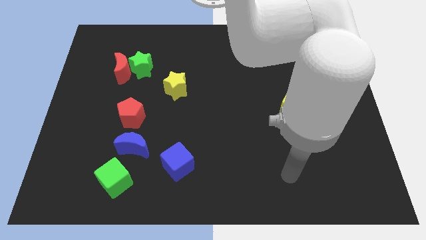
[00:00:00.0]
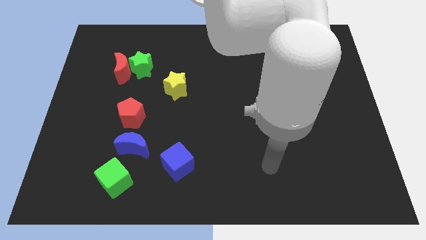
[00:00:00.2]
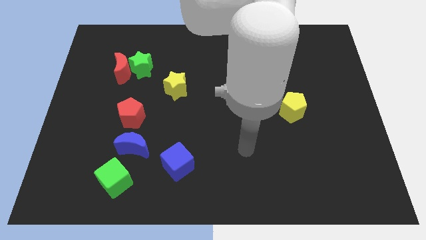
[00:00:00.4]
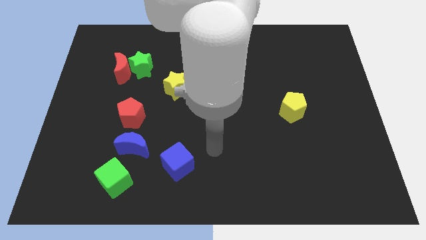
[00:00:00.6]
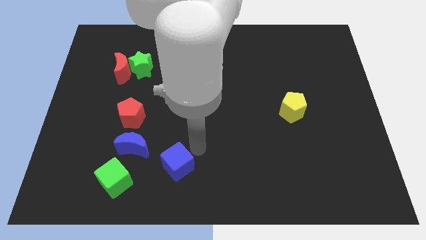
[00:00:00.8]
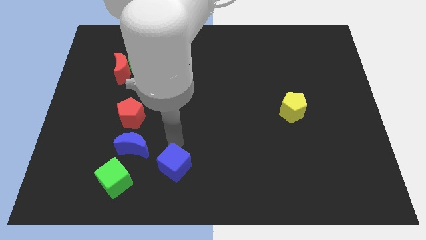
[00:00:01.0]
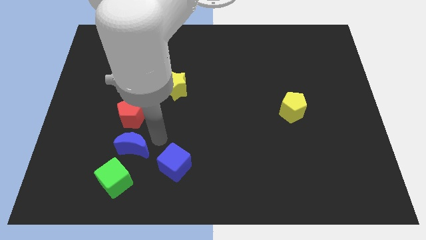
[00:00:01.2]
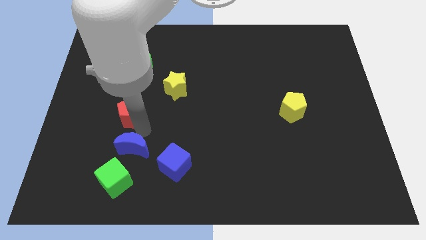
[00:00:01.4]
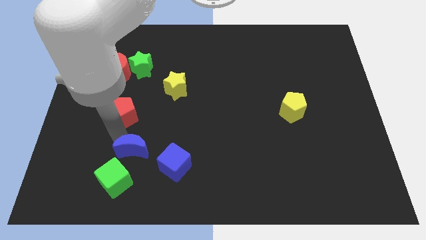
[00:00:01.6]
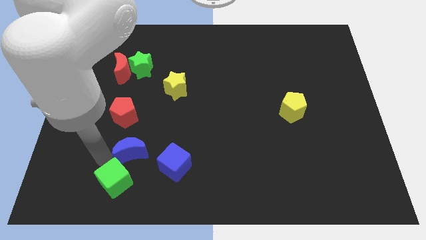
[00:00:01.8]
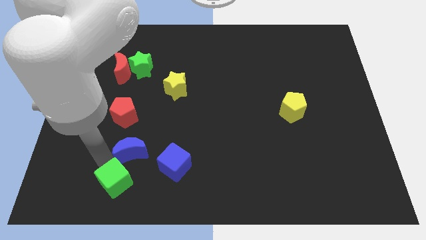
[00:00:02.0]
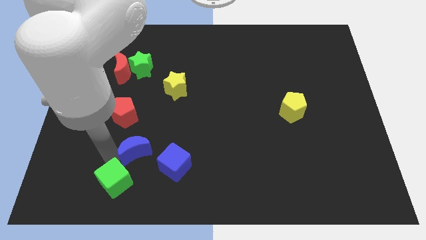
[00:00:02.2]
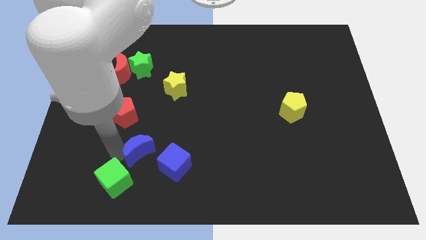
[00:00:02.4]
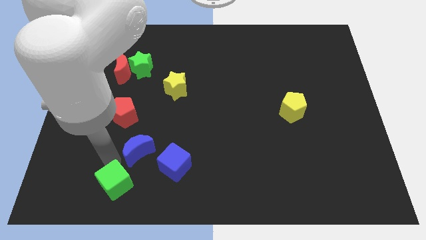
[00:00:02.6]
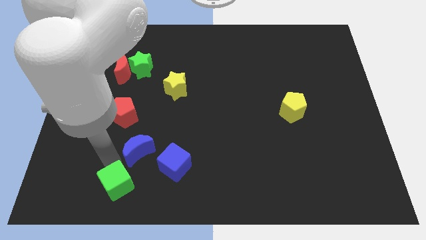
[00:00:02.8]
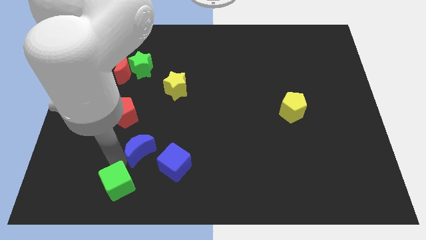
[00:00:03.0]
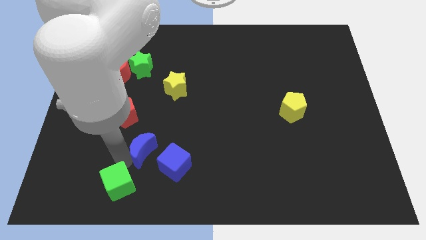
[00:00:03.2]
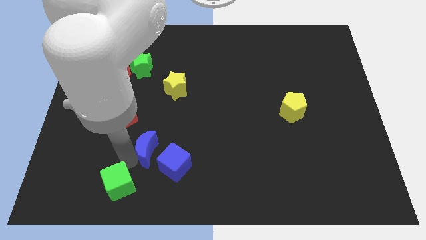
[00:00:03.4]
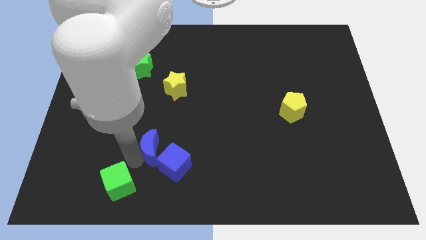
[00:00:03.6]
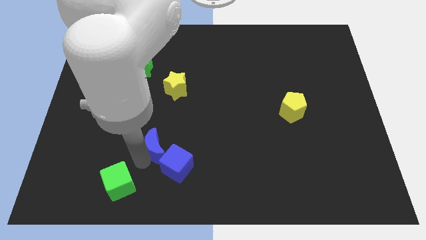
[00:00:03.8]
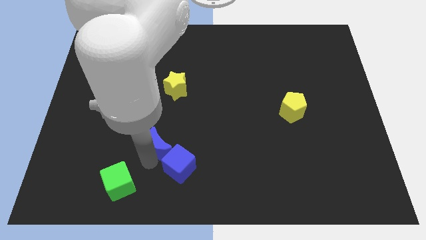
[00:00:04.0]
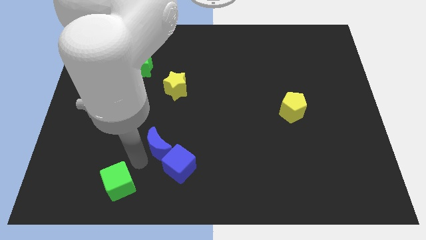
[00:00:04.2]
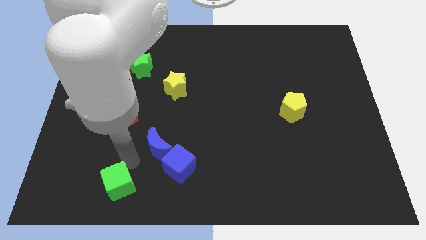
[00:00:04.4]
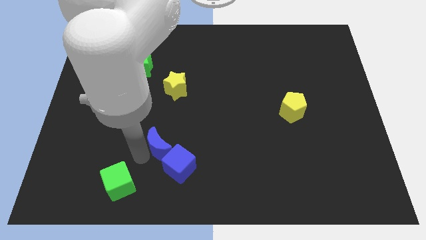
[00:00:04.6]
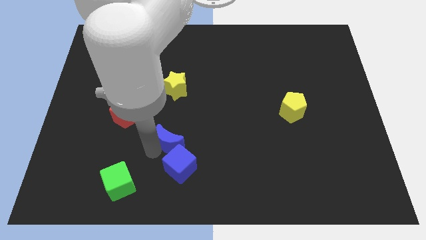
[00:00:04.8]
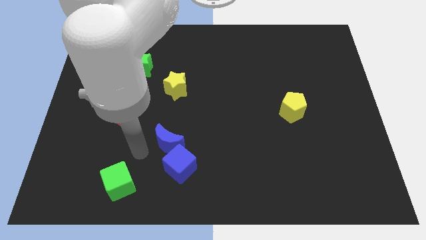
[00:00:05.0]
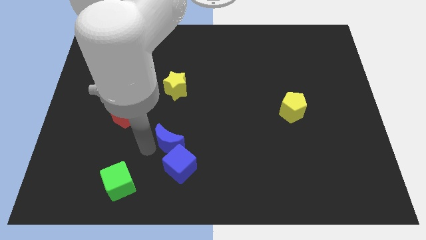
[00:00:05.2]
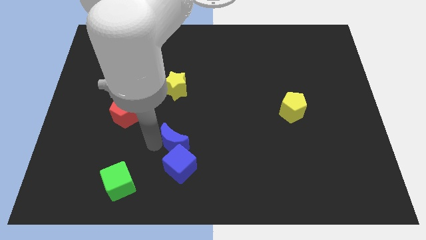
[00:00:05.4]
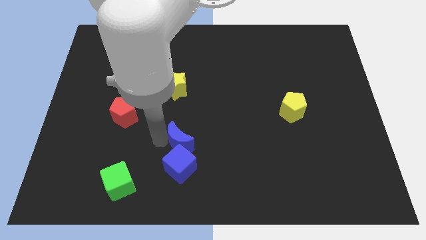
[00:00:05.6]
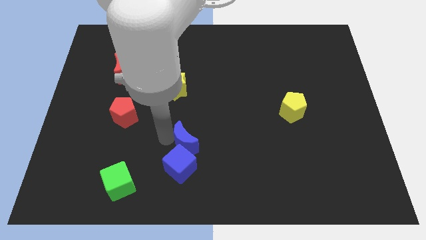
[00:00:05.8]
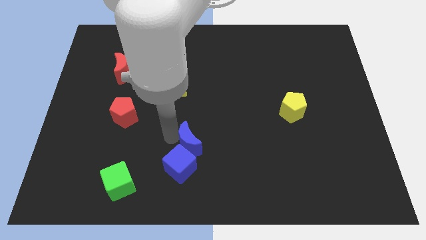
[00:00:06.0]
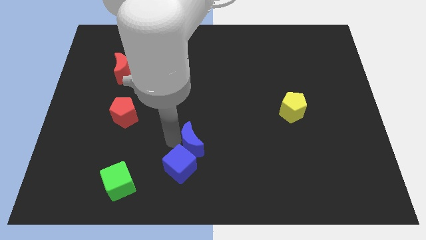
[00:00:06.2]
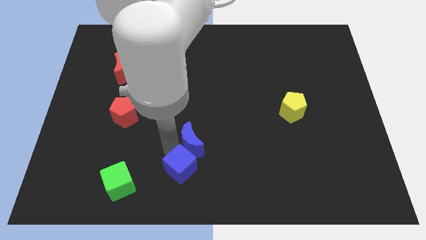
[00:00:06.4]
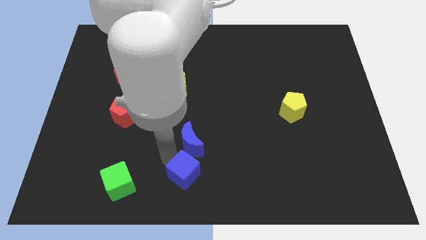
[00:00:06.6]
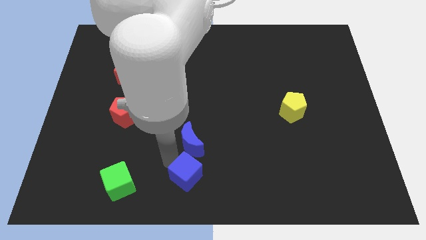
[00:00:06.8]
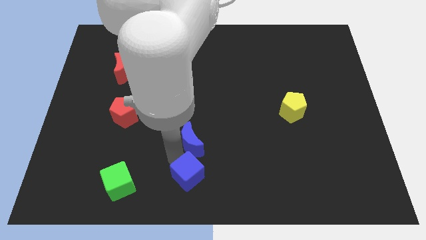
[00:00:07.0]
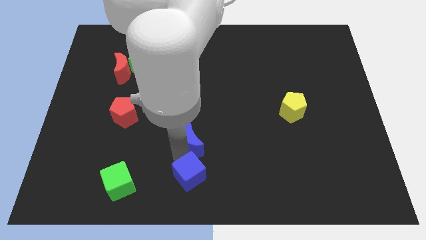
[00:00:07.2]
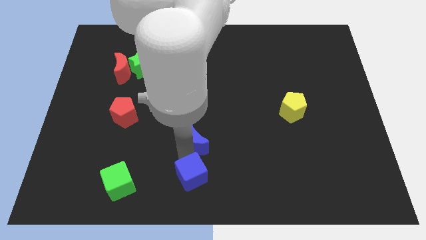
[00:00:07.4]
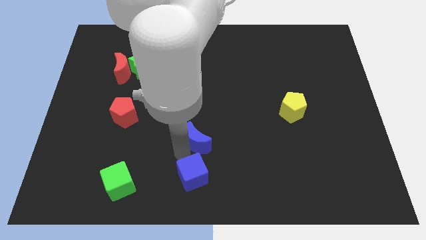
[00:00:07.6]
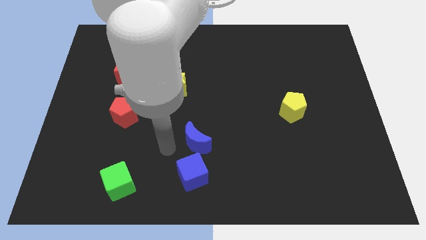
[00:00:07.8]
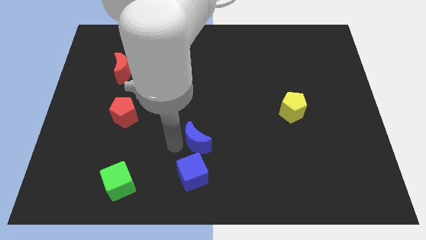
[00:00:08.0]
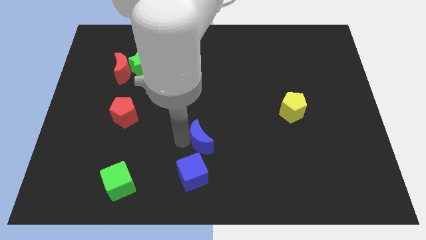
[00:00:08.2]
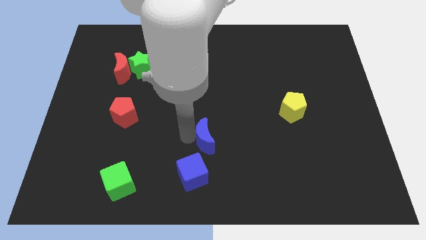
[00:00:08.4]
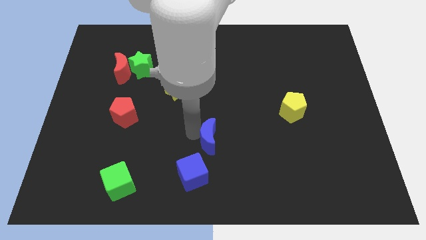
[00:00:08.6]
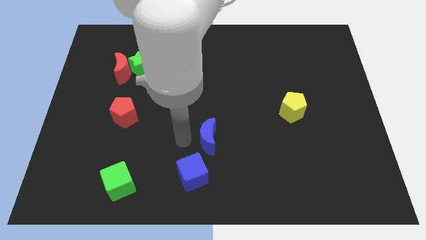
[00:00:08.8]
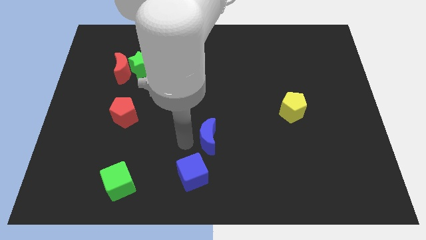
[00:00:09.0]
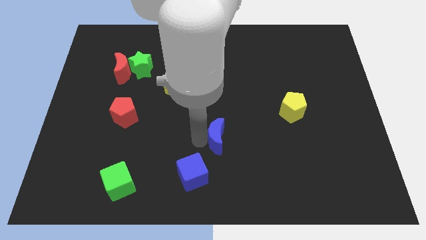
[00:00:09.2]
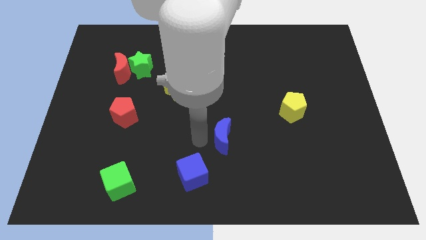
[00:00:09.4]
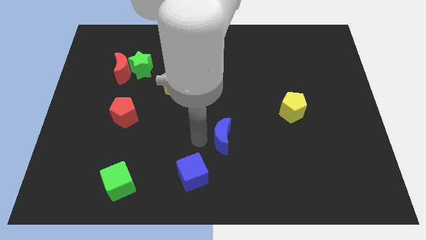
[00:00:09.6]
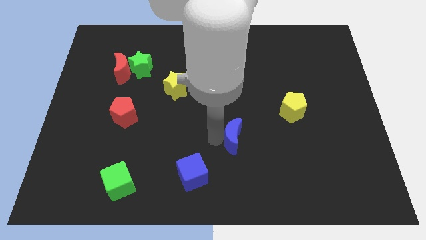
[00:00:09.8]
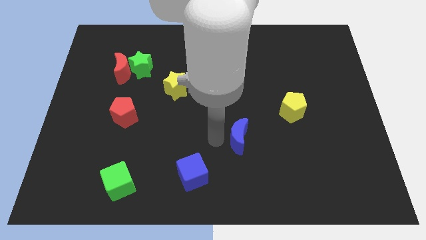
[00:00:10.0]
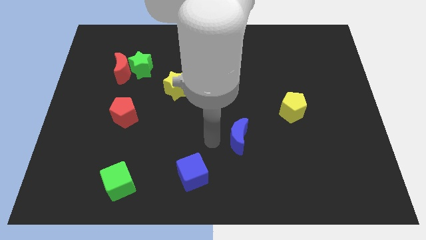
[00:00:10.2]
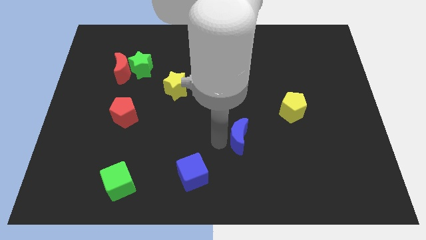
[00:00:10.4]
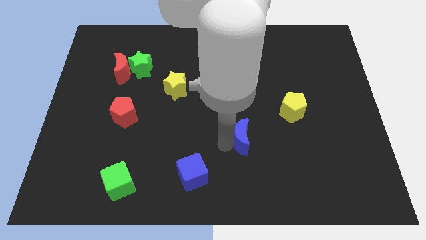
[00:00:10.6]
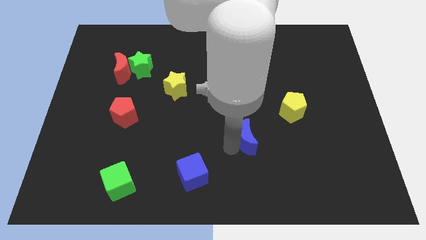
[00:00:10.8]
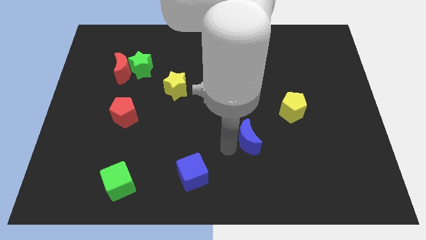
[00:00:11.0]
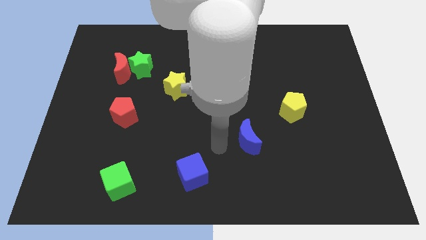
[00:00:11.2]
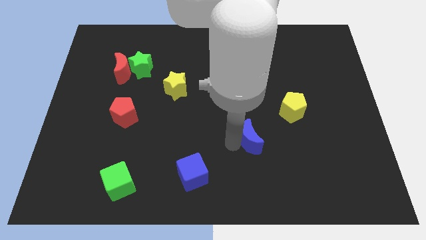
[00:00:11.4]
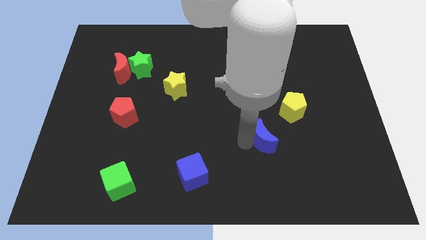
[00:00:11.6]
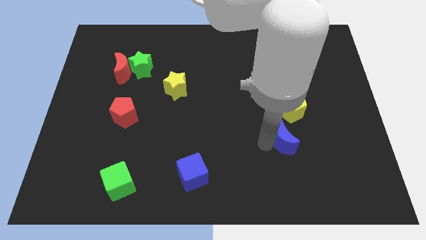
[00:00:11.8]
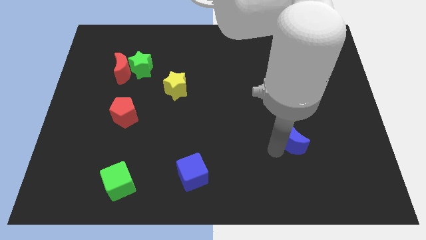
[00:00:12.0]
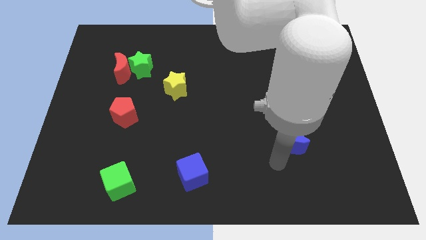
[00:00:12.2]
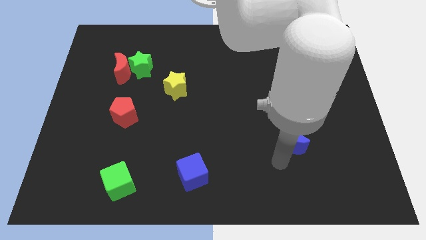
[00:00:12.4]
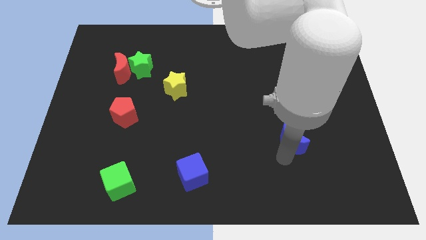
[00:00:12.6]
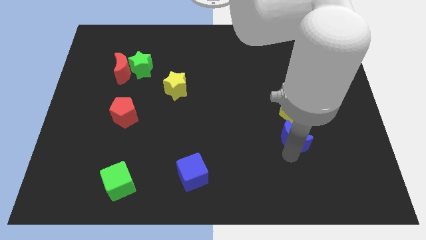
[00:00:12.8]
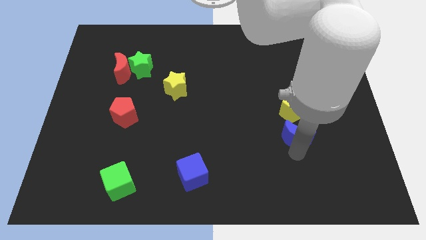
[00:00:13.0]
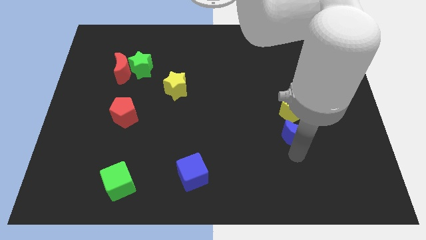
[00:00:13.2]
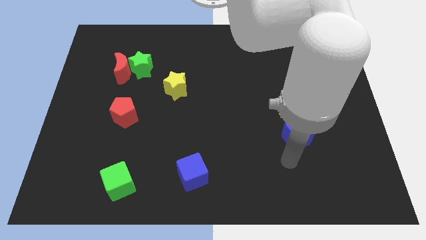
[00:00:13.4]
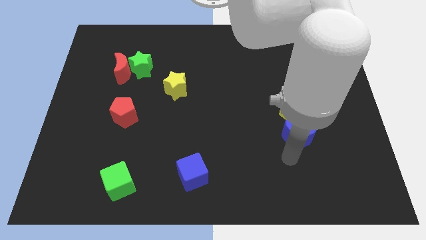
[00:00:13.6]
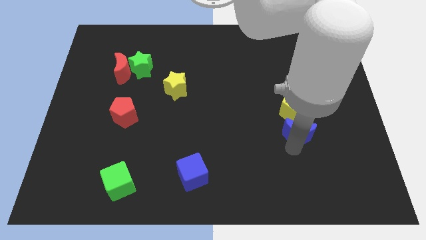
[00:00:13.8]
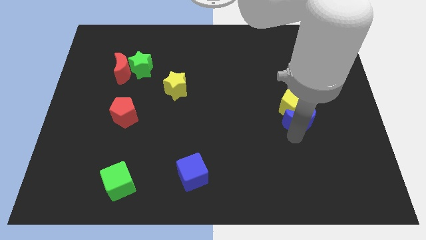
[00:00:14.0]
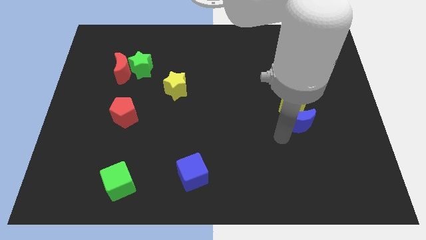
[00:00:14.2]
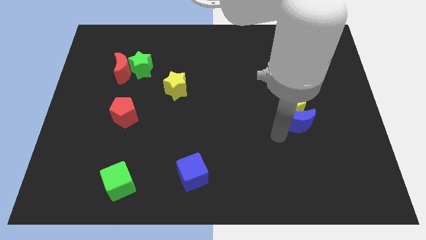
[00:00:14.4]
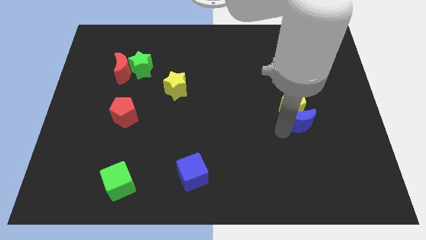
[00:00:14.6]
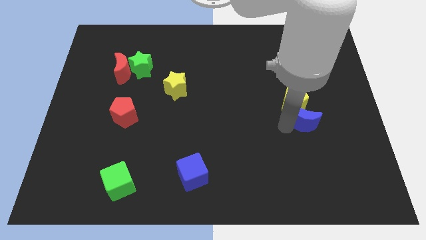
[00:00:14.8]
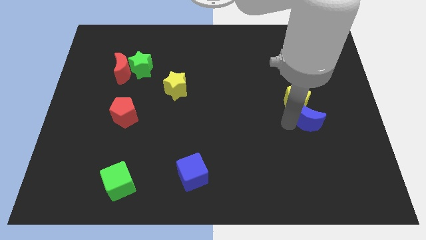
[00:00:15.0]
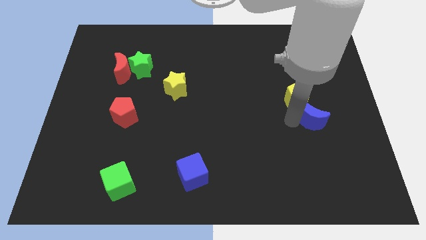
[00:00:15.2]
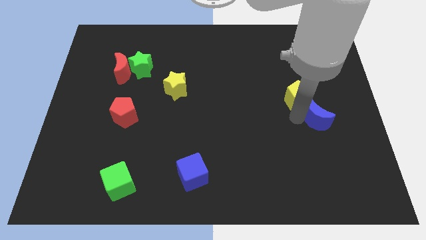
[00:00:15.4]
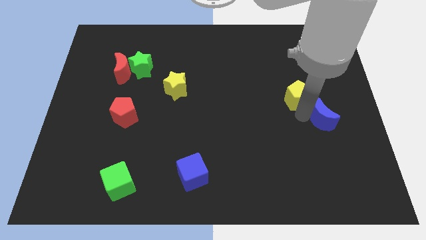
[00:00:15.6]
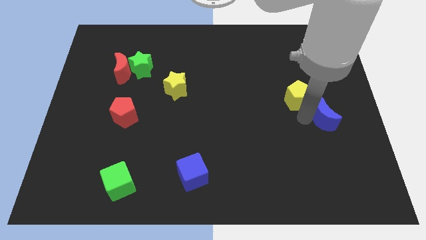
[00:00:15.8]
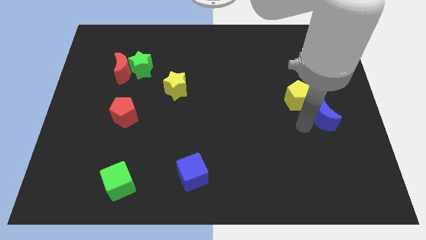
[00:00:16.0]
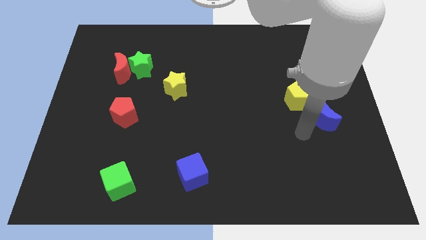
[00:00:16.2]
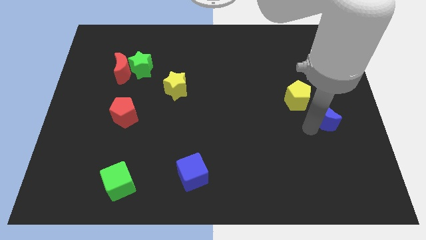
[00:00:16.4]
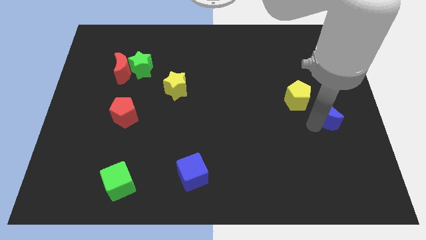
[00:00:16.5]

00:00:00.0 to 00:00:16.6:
push the blue moon to the center right
